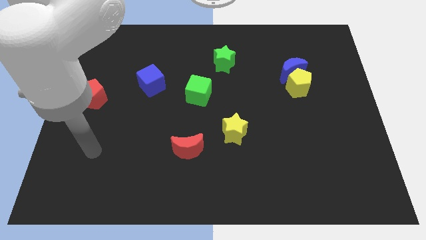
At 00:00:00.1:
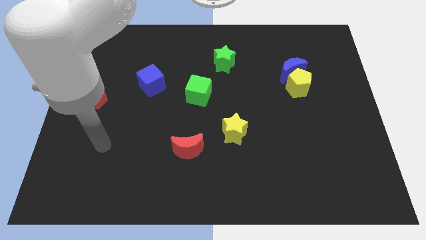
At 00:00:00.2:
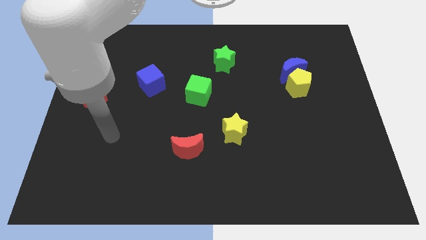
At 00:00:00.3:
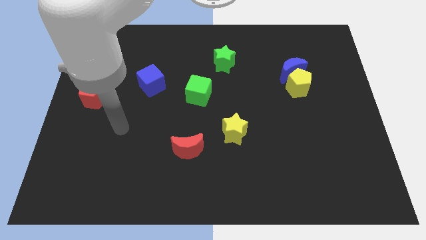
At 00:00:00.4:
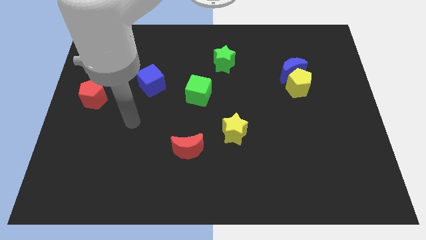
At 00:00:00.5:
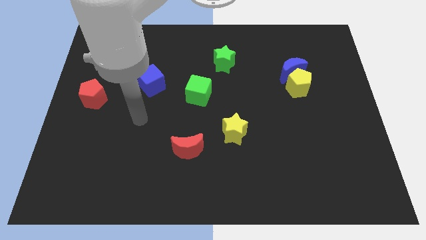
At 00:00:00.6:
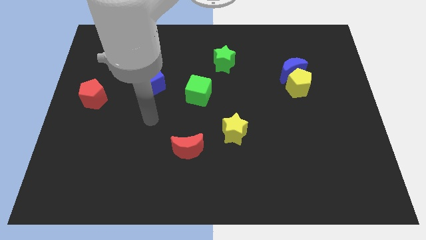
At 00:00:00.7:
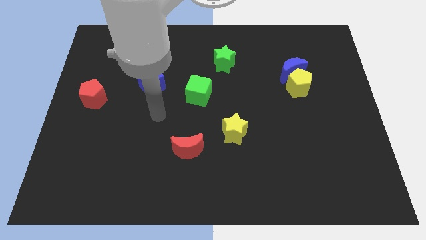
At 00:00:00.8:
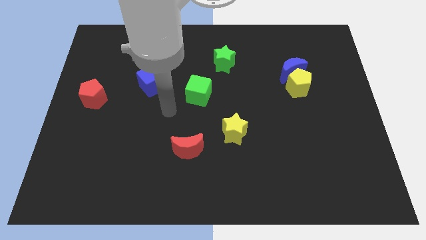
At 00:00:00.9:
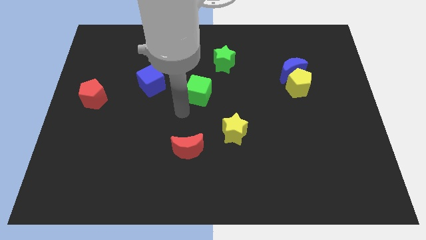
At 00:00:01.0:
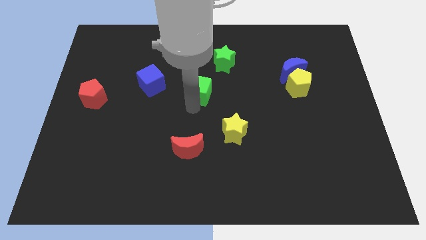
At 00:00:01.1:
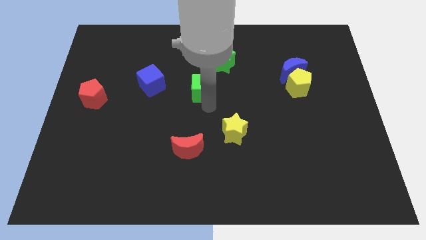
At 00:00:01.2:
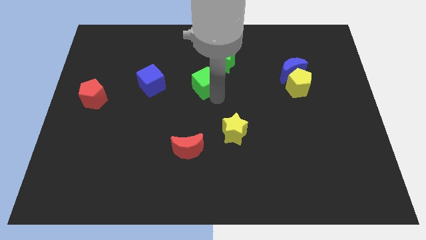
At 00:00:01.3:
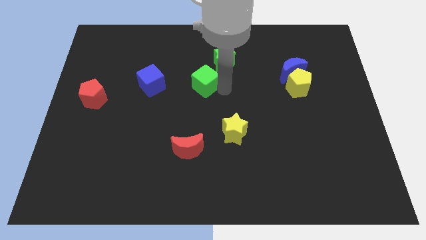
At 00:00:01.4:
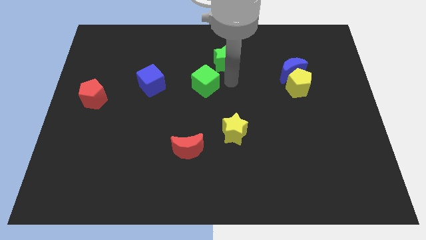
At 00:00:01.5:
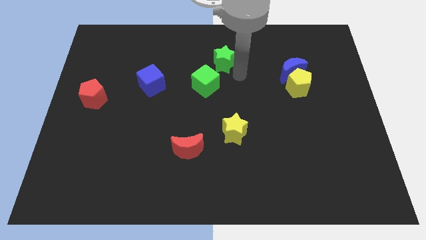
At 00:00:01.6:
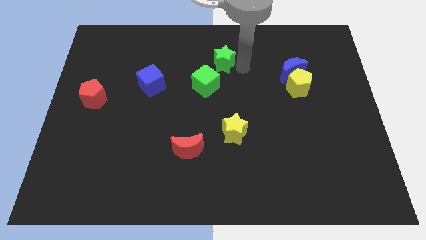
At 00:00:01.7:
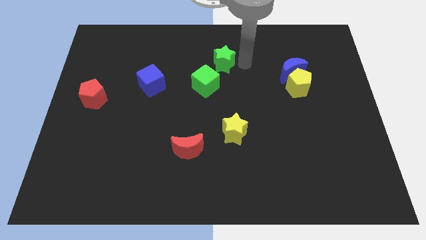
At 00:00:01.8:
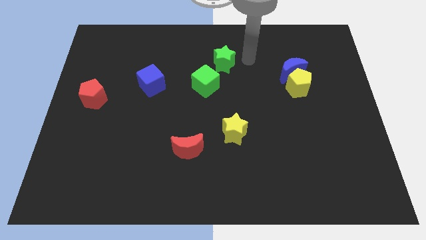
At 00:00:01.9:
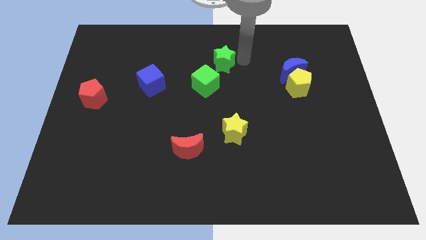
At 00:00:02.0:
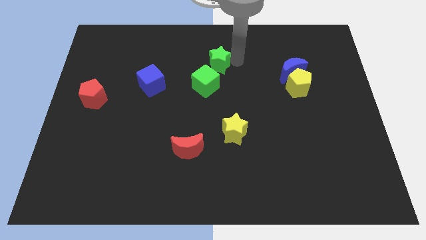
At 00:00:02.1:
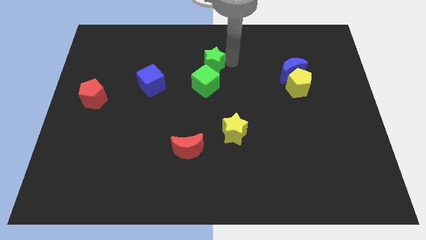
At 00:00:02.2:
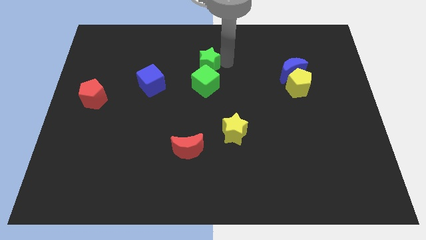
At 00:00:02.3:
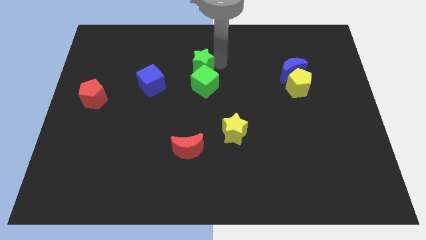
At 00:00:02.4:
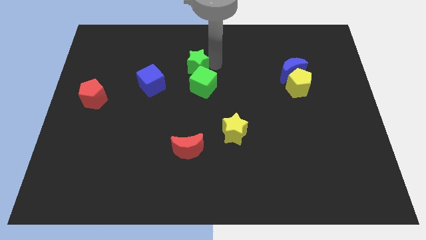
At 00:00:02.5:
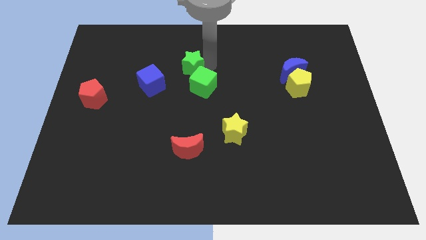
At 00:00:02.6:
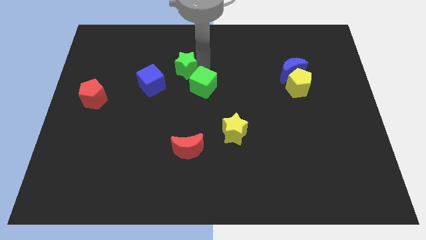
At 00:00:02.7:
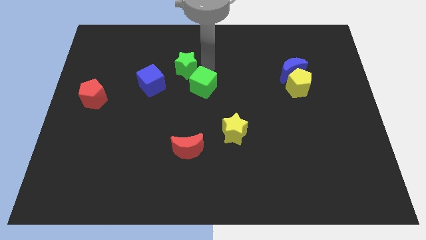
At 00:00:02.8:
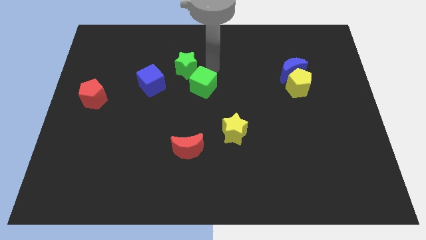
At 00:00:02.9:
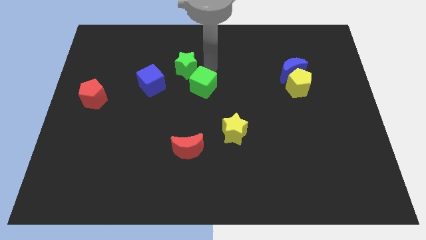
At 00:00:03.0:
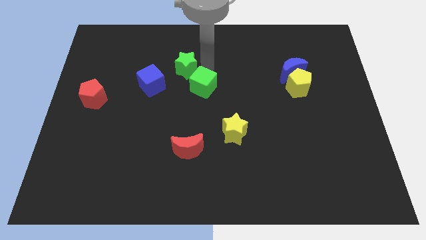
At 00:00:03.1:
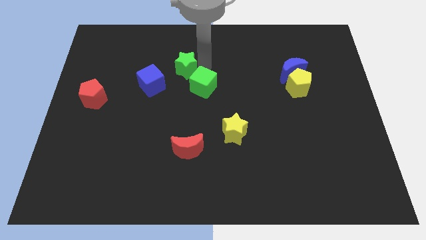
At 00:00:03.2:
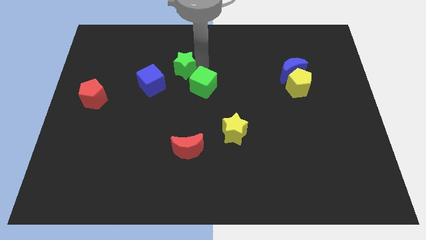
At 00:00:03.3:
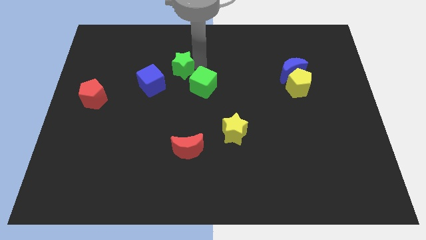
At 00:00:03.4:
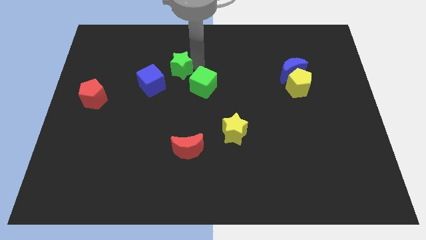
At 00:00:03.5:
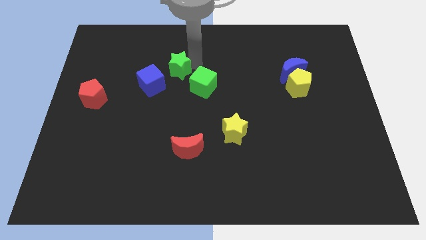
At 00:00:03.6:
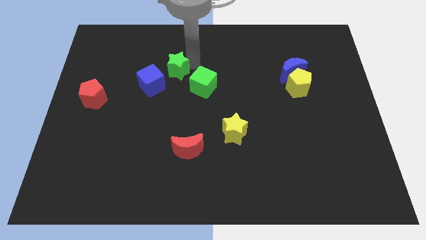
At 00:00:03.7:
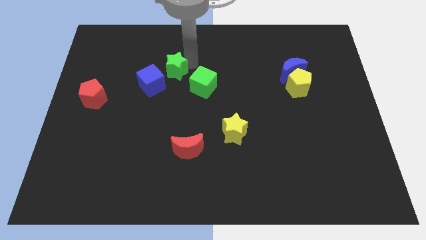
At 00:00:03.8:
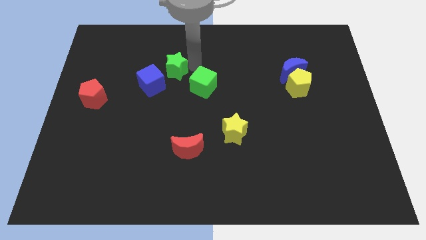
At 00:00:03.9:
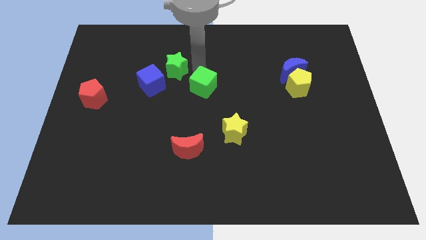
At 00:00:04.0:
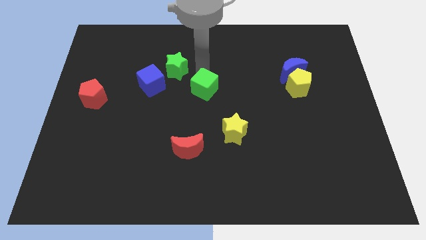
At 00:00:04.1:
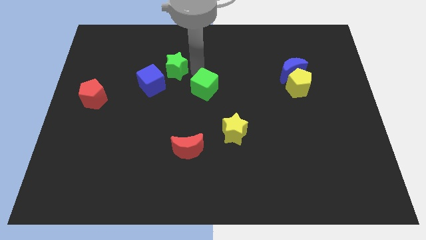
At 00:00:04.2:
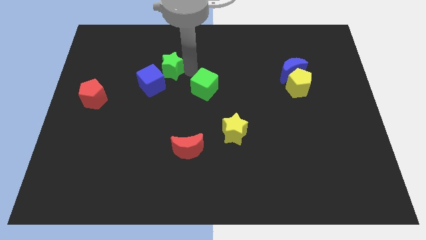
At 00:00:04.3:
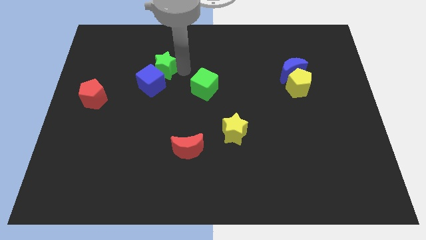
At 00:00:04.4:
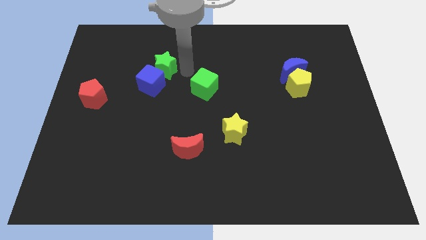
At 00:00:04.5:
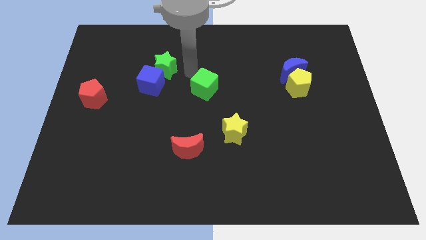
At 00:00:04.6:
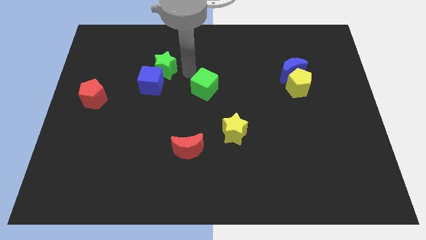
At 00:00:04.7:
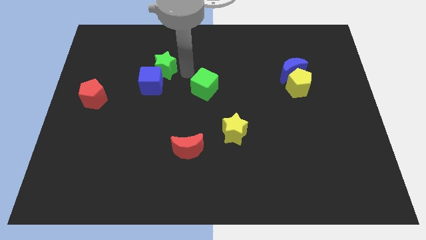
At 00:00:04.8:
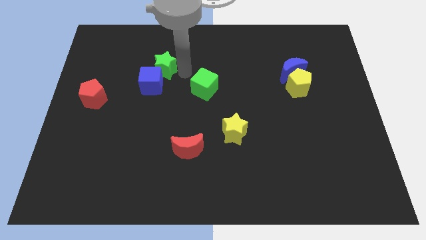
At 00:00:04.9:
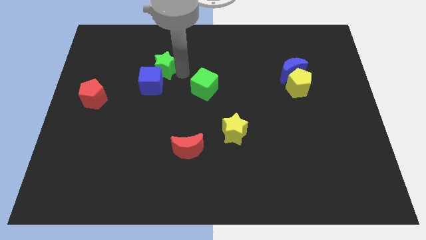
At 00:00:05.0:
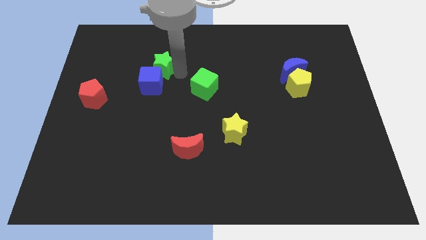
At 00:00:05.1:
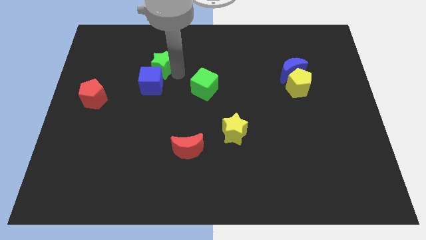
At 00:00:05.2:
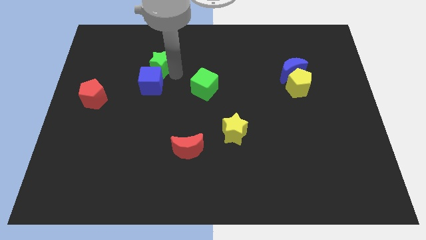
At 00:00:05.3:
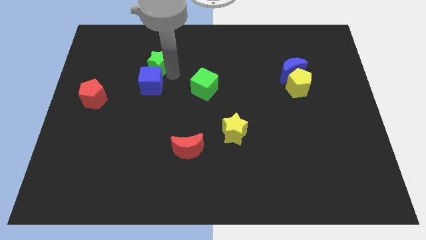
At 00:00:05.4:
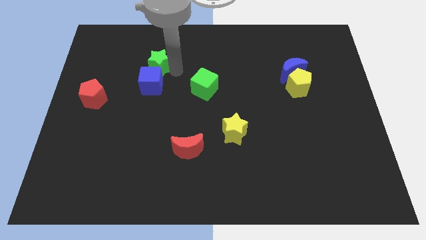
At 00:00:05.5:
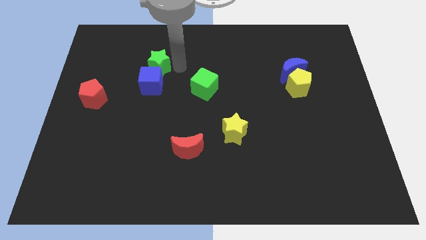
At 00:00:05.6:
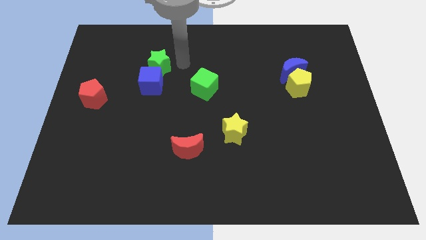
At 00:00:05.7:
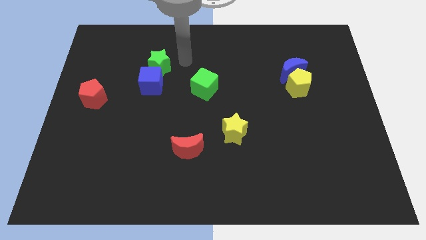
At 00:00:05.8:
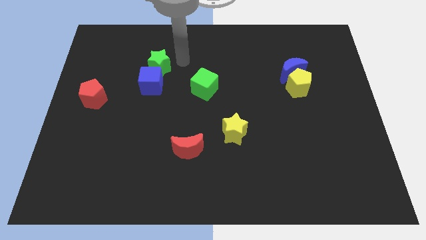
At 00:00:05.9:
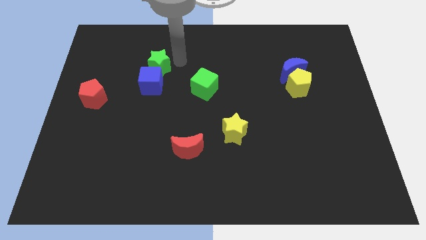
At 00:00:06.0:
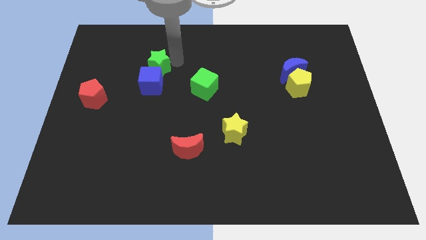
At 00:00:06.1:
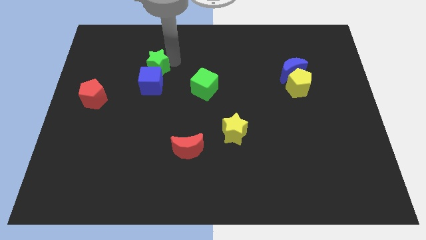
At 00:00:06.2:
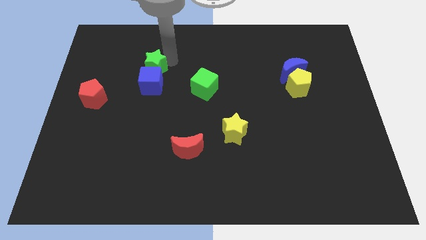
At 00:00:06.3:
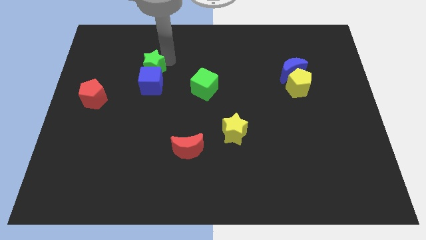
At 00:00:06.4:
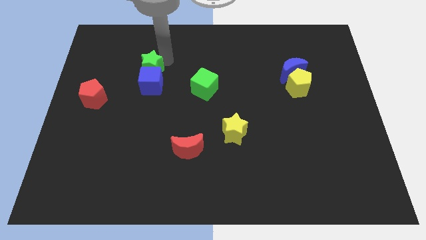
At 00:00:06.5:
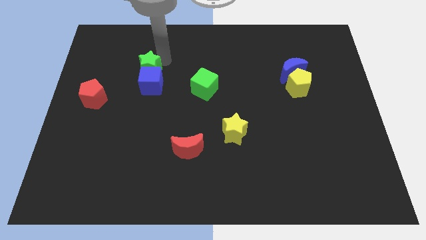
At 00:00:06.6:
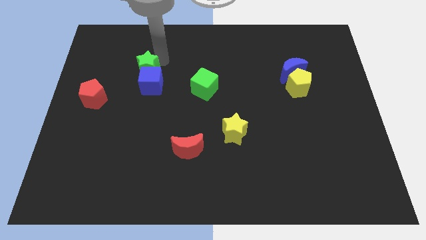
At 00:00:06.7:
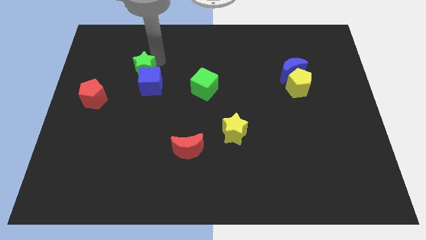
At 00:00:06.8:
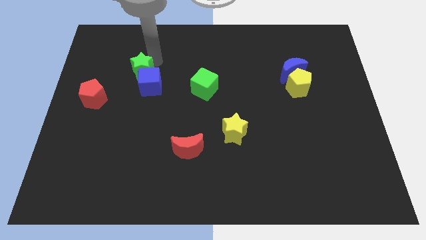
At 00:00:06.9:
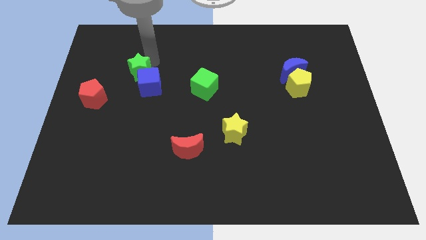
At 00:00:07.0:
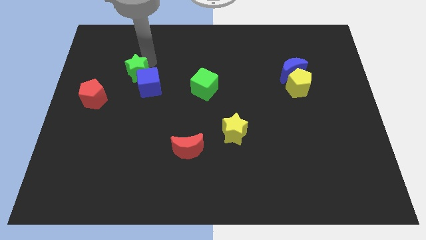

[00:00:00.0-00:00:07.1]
slide the green star to the top right side of the red pentagon
